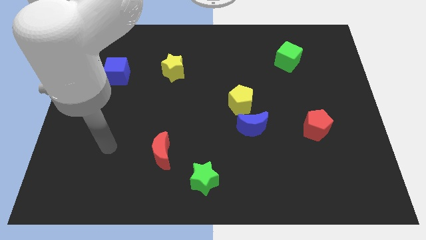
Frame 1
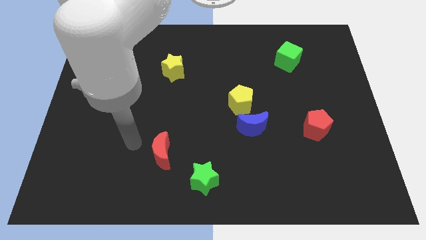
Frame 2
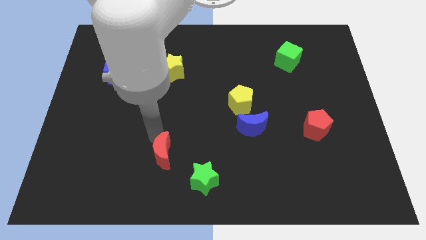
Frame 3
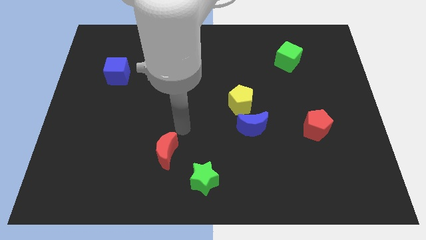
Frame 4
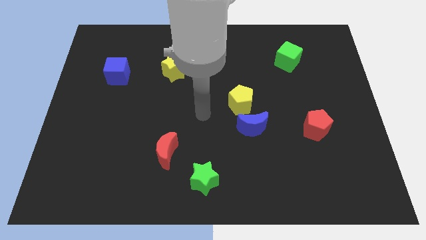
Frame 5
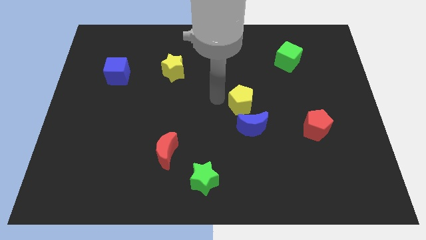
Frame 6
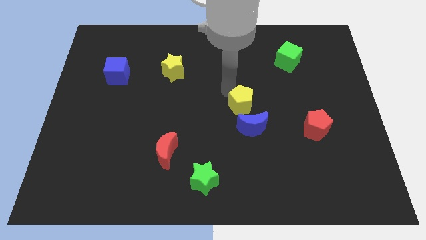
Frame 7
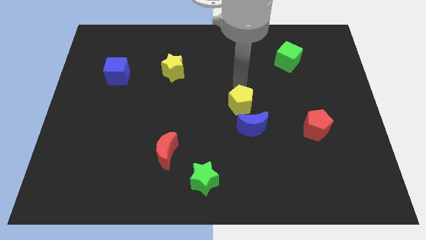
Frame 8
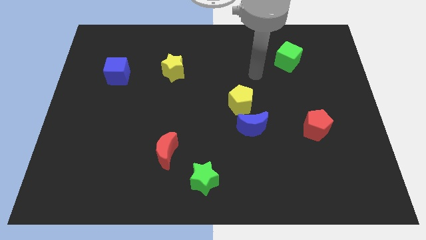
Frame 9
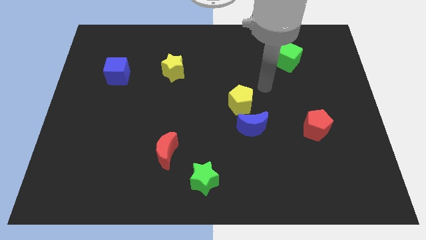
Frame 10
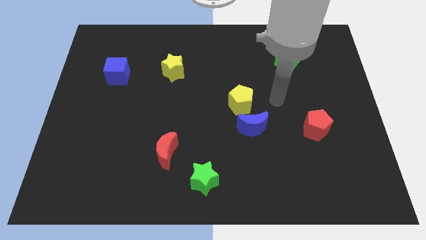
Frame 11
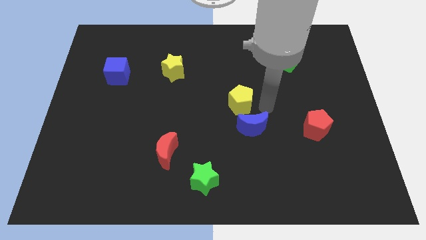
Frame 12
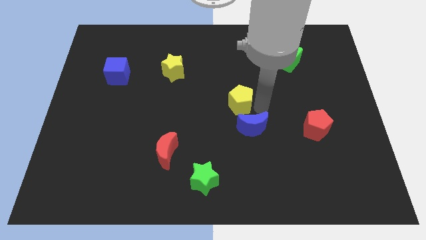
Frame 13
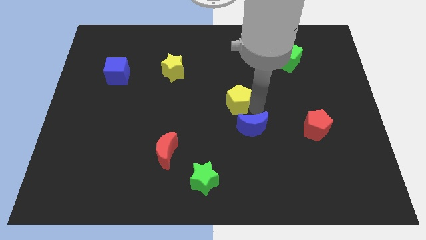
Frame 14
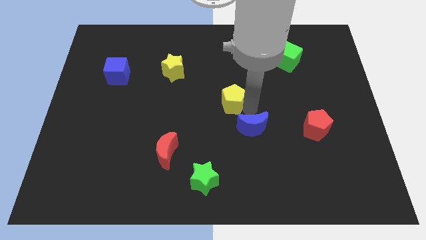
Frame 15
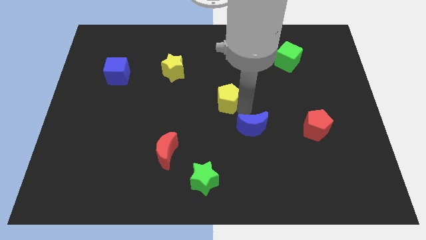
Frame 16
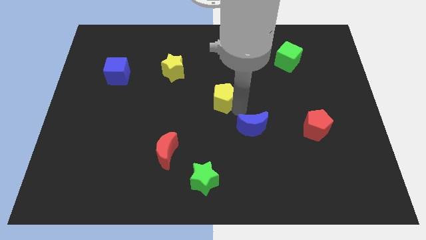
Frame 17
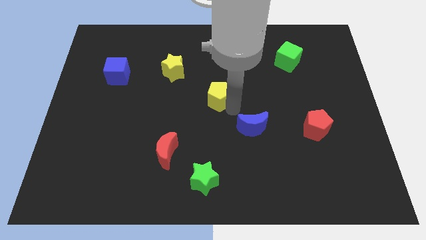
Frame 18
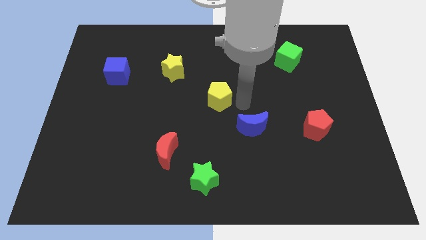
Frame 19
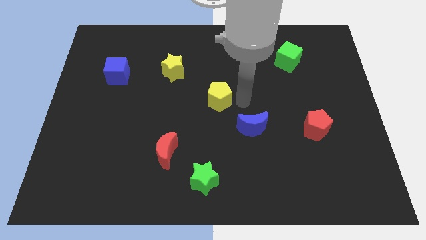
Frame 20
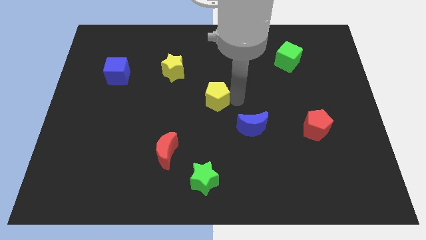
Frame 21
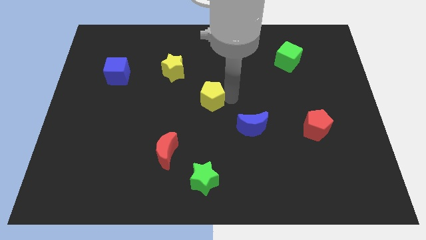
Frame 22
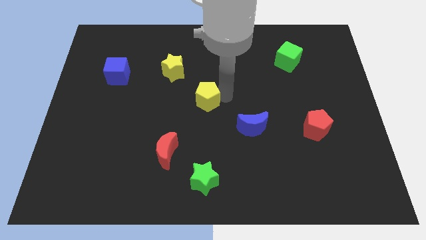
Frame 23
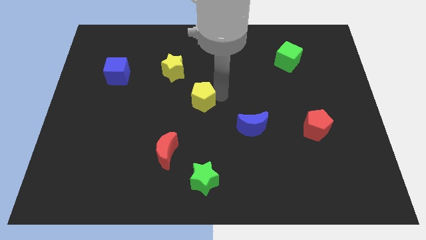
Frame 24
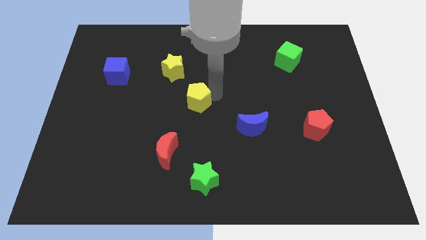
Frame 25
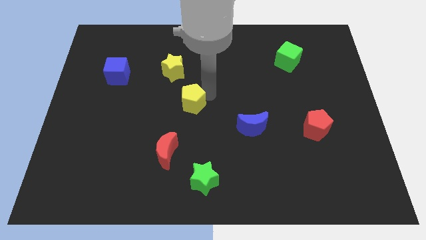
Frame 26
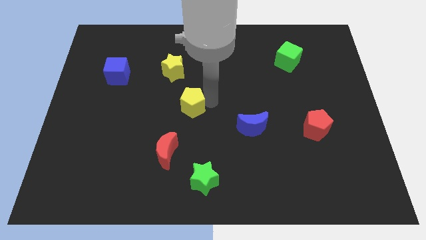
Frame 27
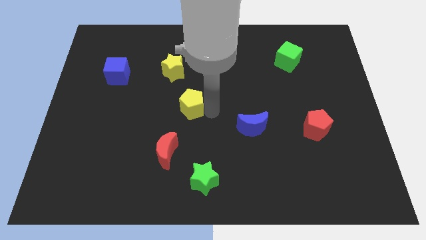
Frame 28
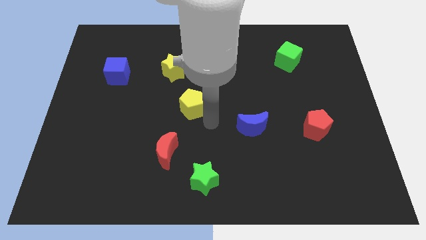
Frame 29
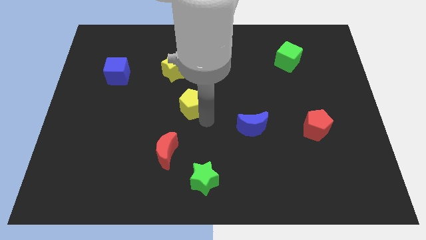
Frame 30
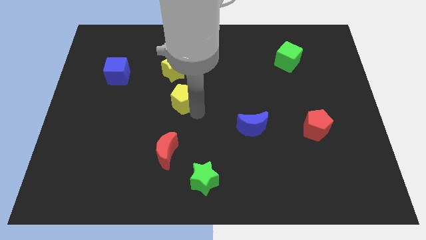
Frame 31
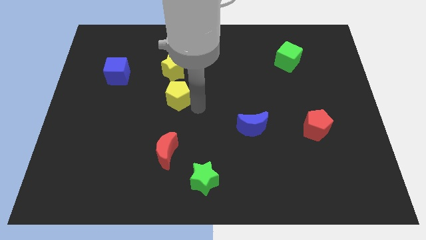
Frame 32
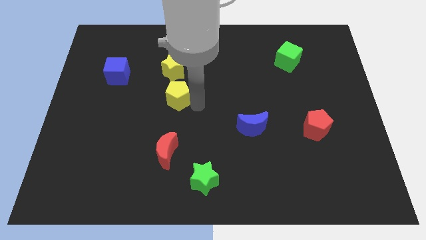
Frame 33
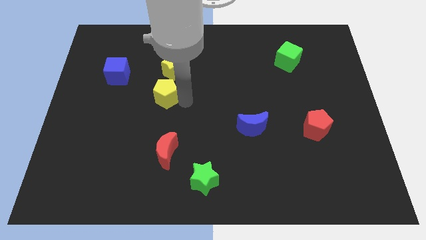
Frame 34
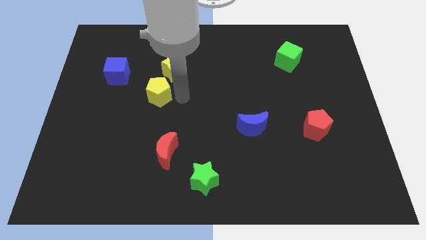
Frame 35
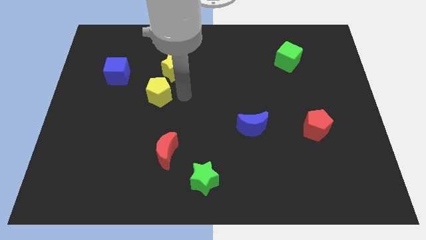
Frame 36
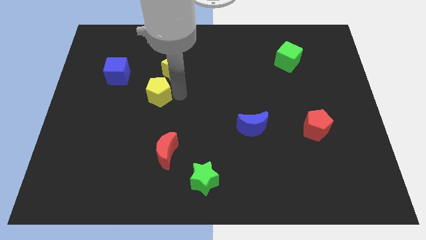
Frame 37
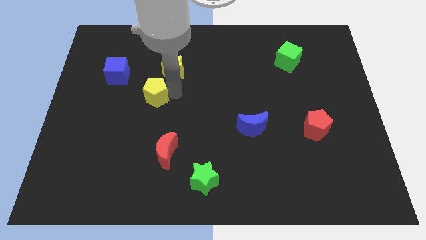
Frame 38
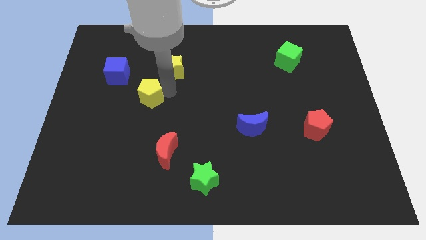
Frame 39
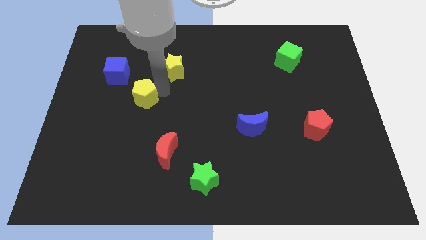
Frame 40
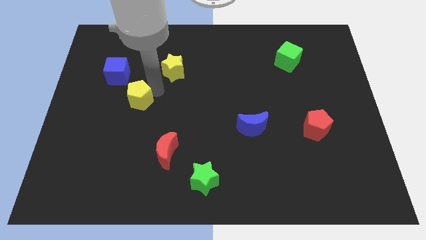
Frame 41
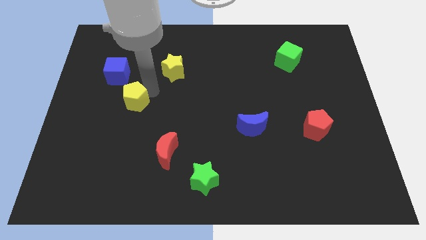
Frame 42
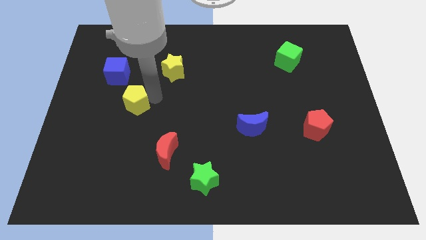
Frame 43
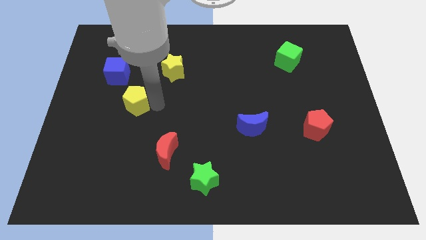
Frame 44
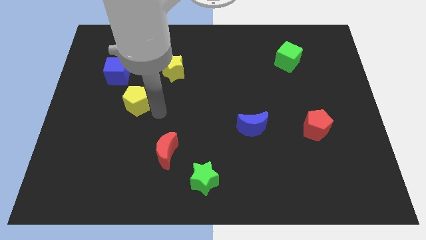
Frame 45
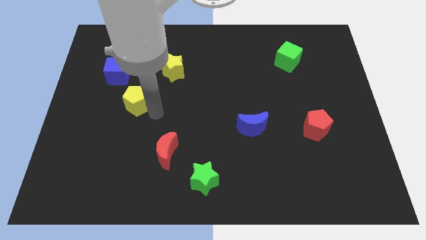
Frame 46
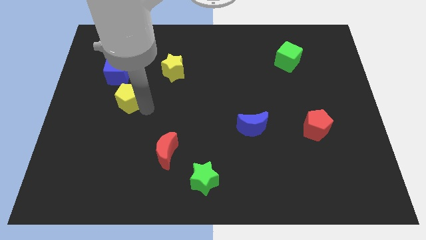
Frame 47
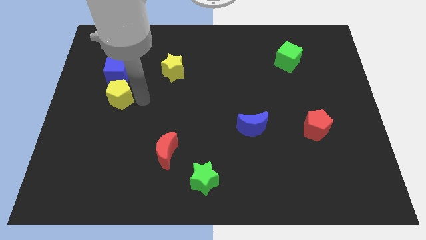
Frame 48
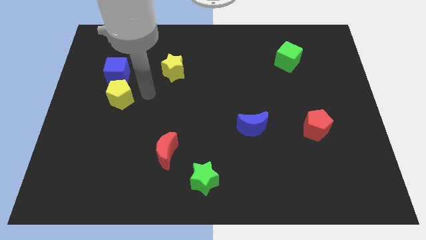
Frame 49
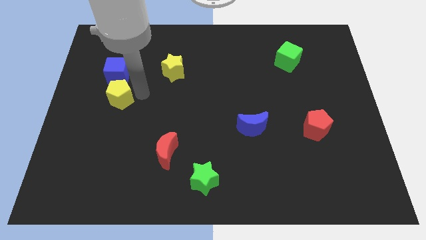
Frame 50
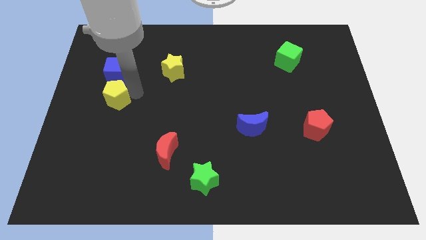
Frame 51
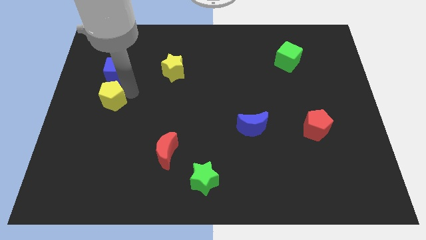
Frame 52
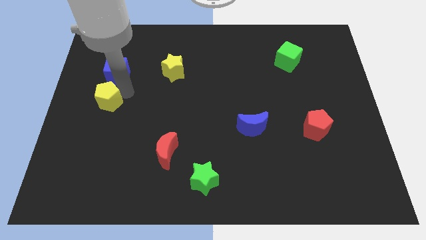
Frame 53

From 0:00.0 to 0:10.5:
slide the yellow pentagon to the left side
